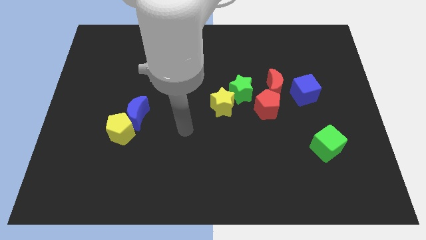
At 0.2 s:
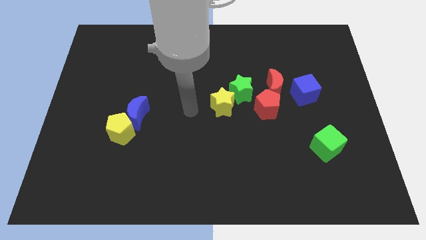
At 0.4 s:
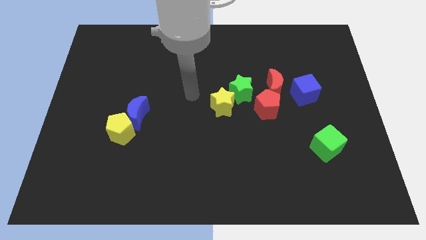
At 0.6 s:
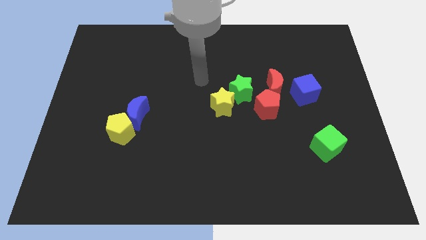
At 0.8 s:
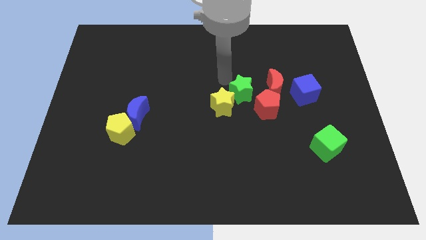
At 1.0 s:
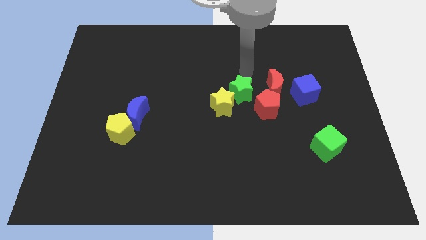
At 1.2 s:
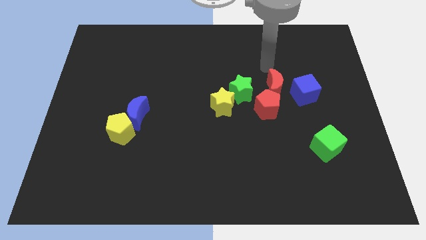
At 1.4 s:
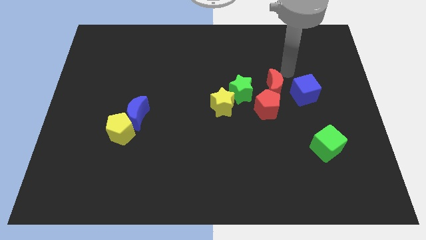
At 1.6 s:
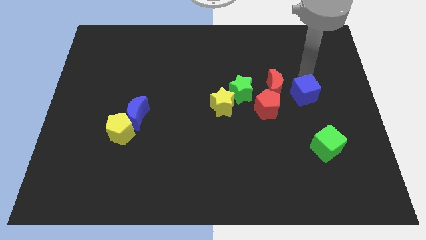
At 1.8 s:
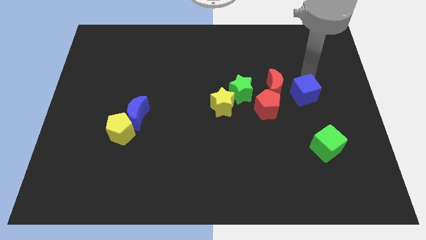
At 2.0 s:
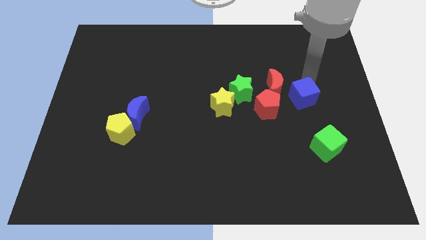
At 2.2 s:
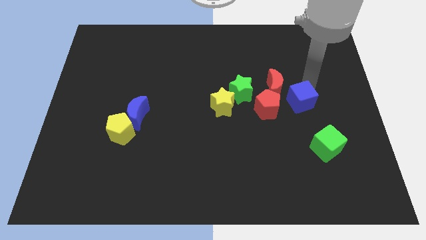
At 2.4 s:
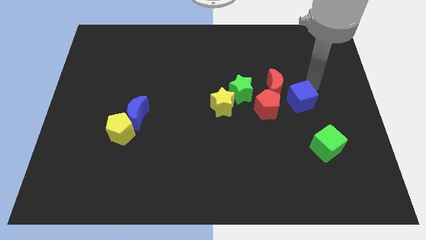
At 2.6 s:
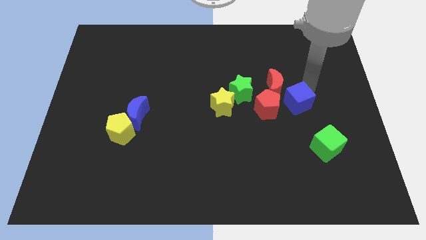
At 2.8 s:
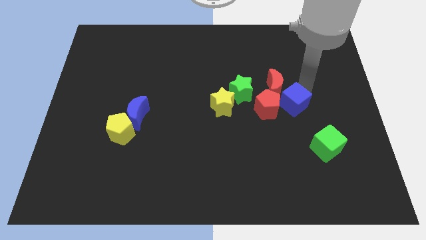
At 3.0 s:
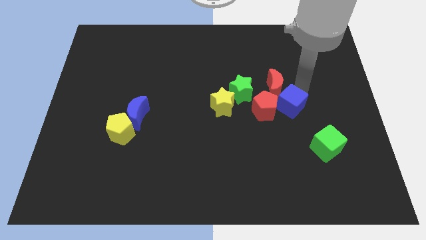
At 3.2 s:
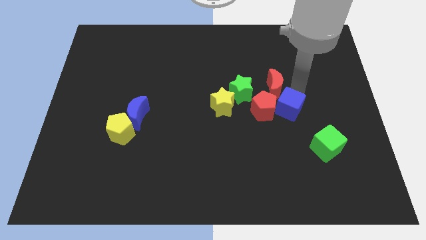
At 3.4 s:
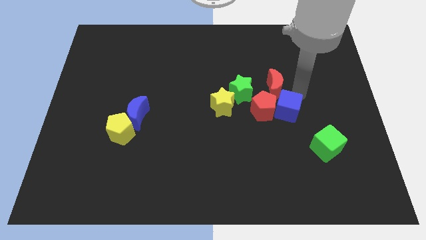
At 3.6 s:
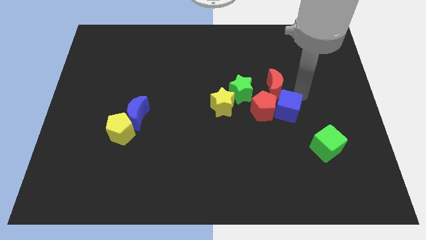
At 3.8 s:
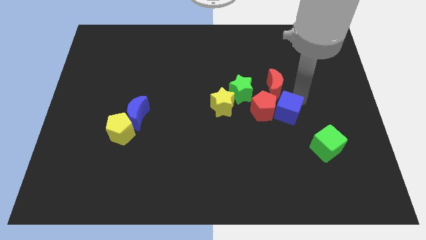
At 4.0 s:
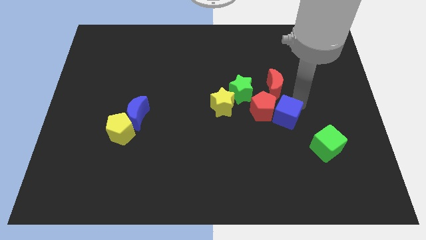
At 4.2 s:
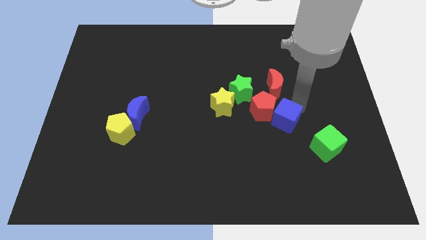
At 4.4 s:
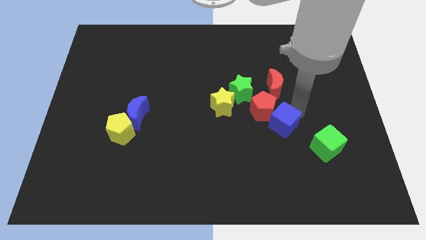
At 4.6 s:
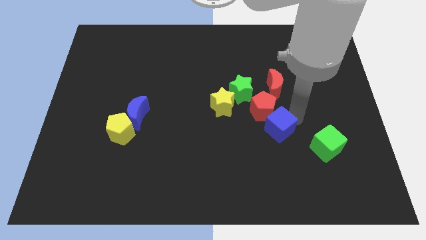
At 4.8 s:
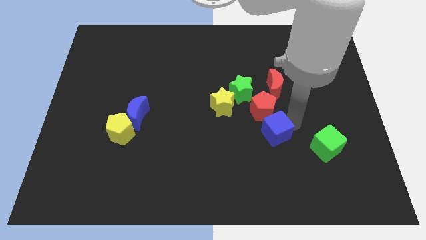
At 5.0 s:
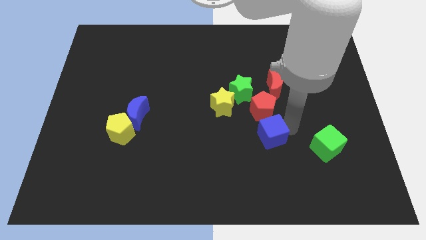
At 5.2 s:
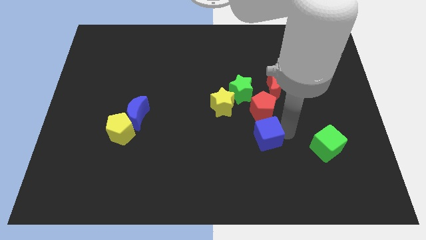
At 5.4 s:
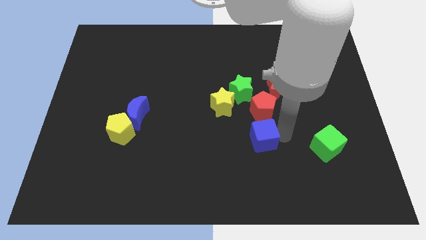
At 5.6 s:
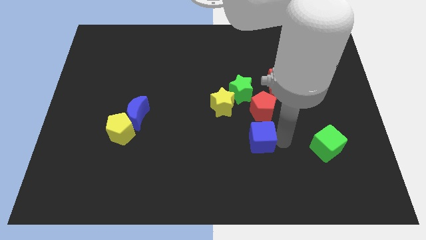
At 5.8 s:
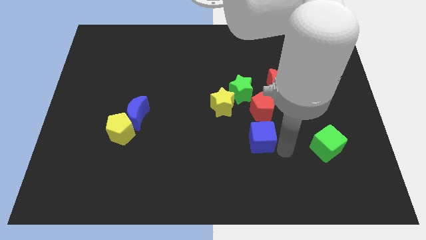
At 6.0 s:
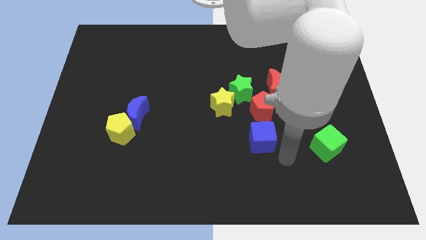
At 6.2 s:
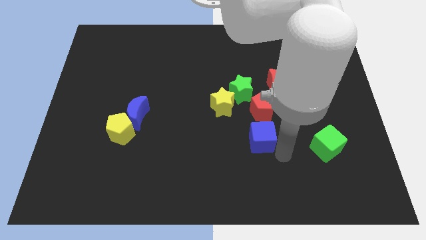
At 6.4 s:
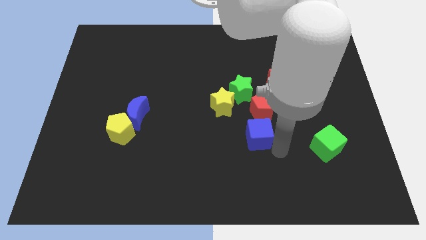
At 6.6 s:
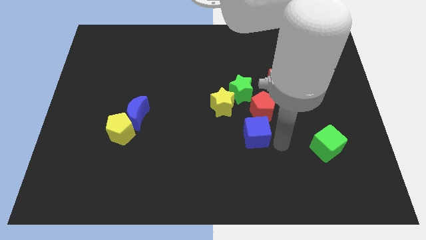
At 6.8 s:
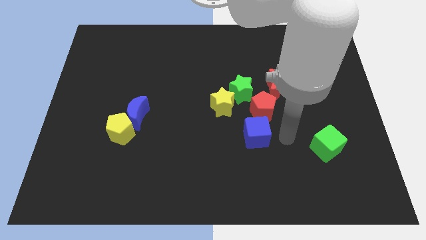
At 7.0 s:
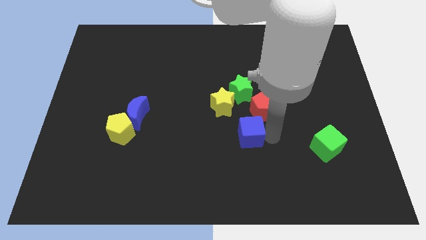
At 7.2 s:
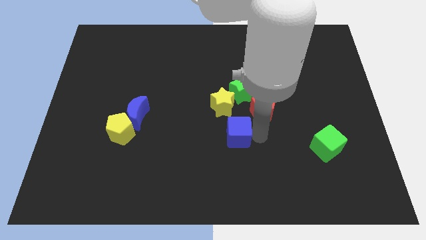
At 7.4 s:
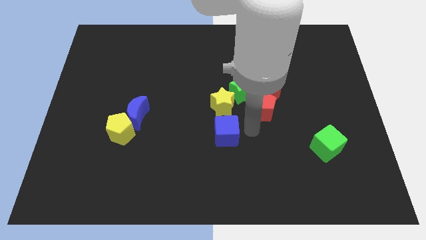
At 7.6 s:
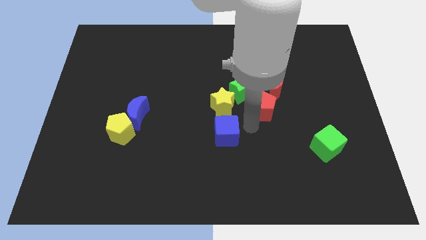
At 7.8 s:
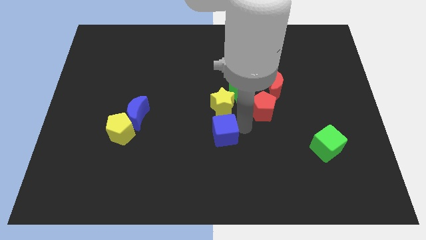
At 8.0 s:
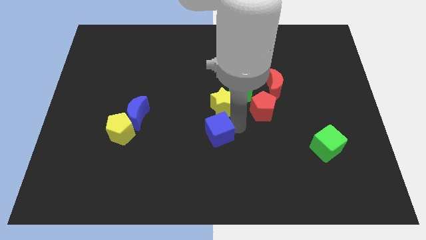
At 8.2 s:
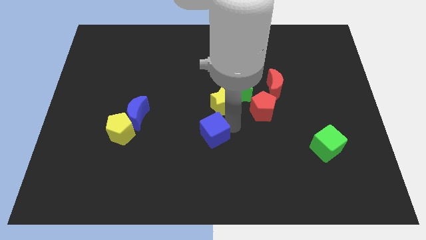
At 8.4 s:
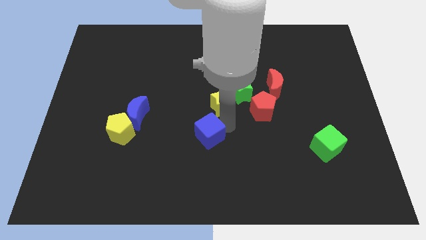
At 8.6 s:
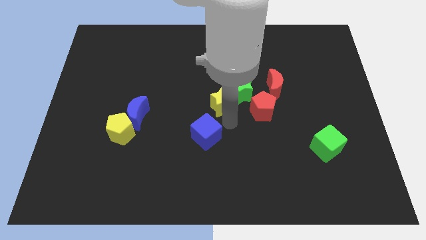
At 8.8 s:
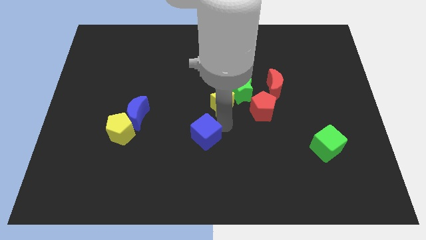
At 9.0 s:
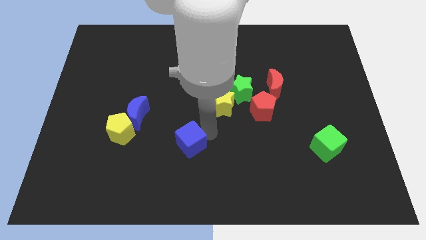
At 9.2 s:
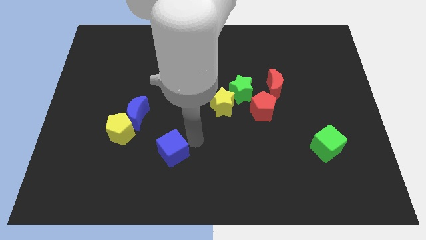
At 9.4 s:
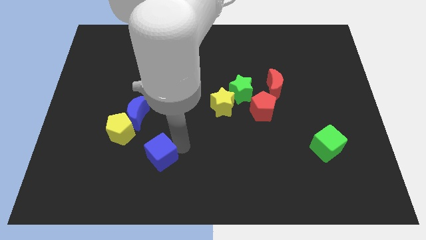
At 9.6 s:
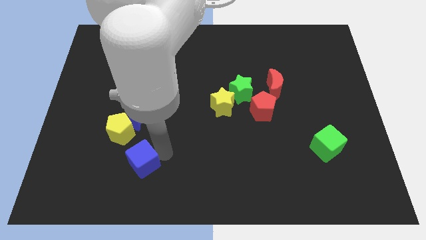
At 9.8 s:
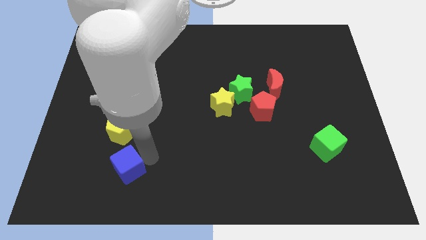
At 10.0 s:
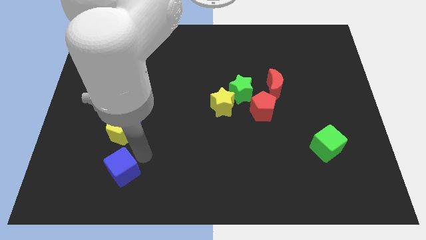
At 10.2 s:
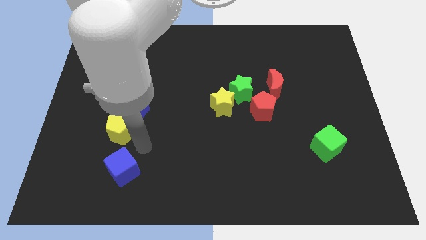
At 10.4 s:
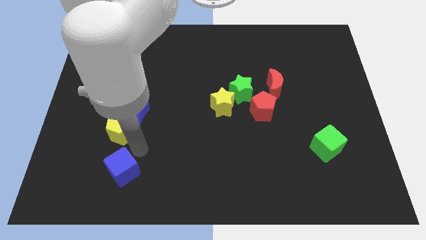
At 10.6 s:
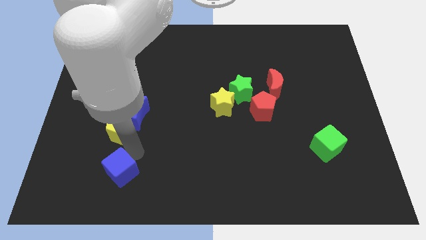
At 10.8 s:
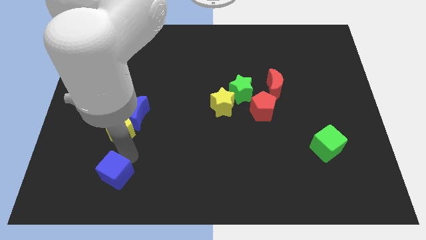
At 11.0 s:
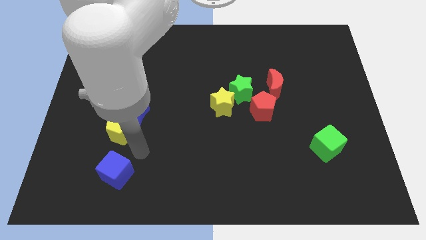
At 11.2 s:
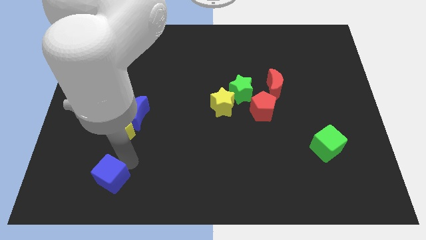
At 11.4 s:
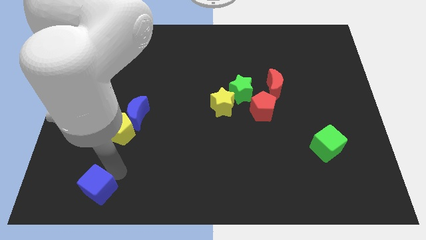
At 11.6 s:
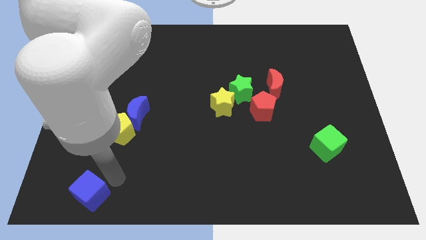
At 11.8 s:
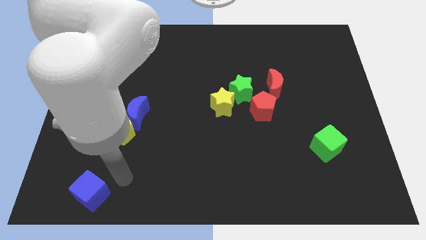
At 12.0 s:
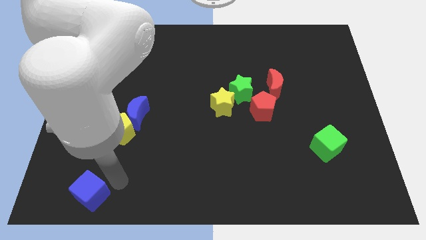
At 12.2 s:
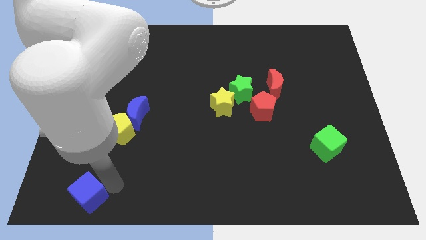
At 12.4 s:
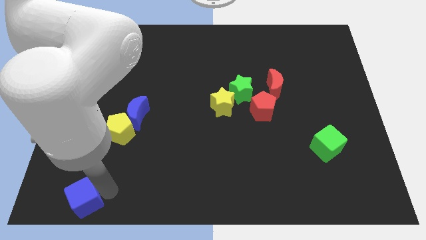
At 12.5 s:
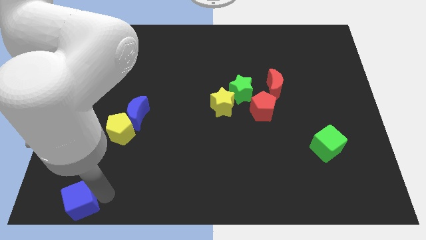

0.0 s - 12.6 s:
slide the blue cube to the lower left corner

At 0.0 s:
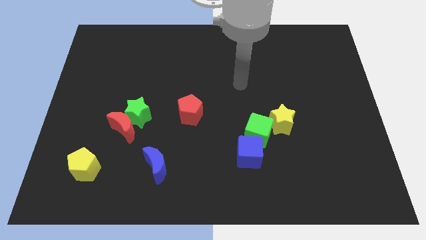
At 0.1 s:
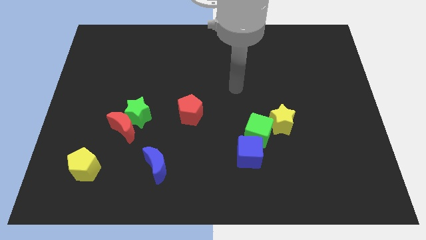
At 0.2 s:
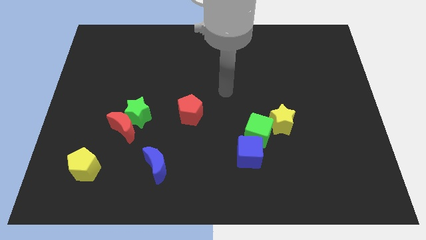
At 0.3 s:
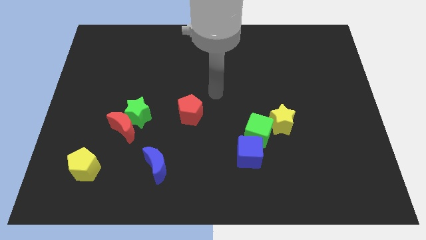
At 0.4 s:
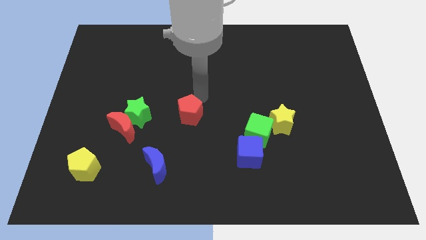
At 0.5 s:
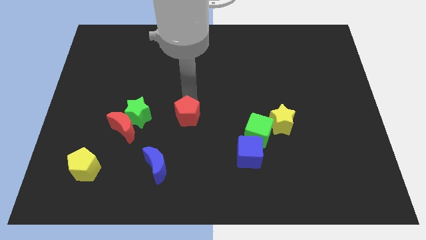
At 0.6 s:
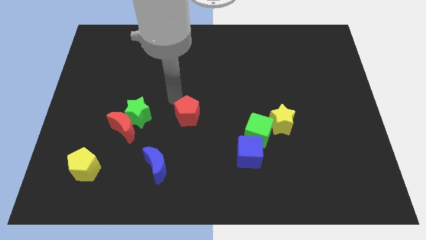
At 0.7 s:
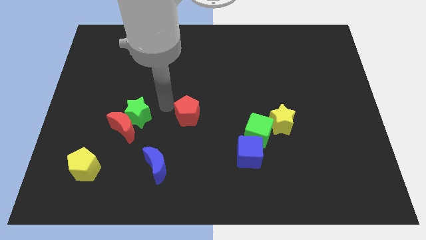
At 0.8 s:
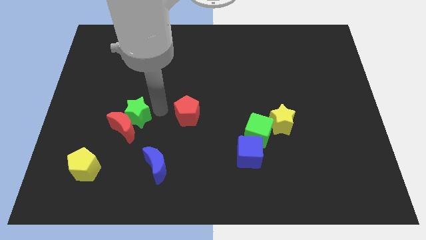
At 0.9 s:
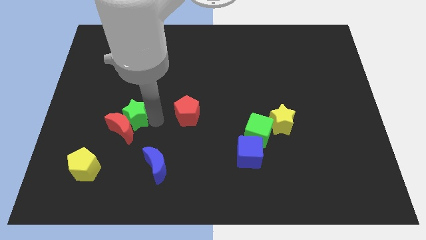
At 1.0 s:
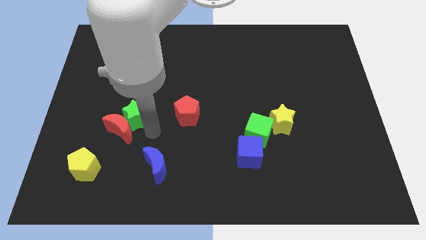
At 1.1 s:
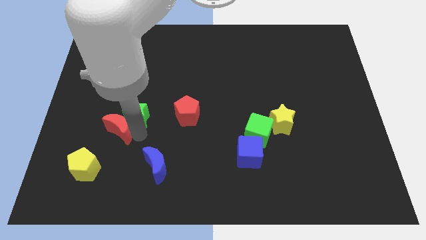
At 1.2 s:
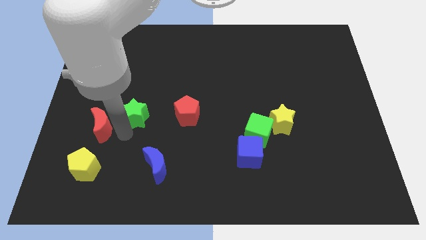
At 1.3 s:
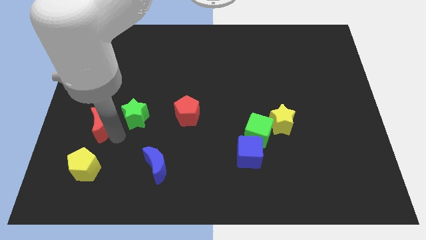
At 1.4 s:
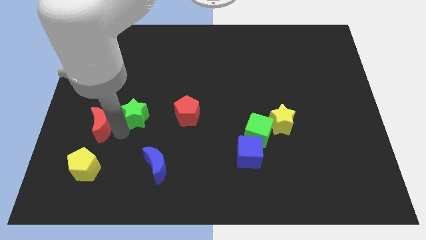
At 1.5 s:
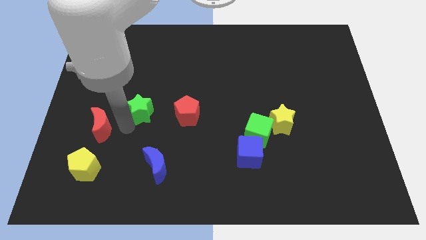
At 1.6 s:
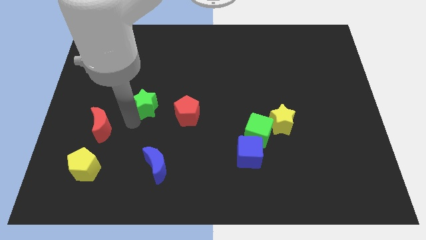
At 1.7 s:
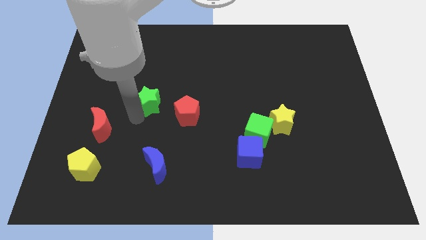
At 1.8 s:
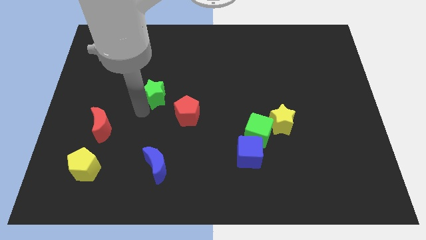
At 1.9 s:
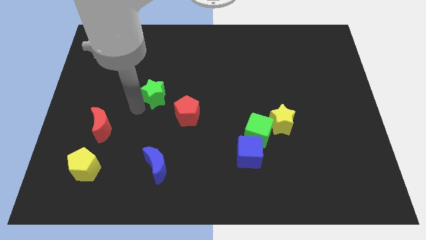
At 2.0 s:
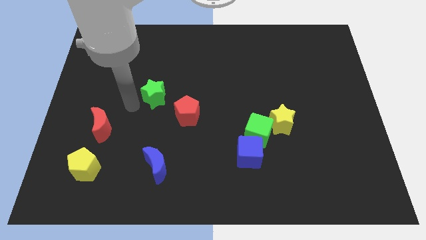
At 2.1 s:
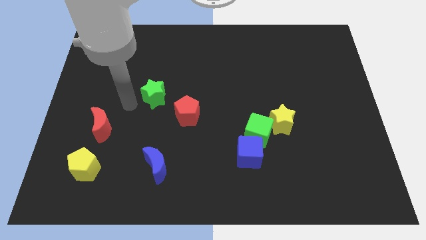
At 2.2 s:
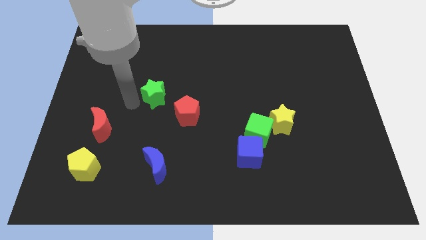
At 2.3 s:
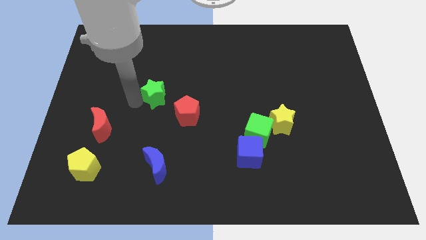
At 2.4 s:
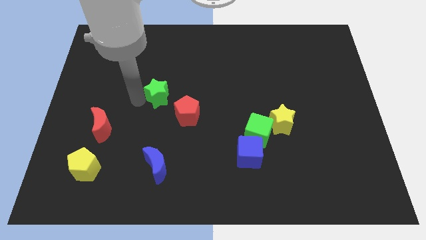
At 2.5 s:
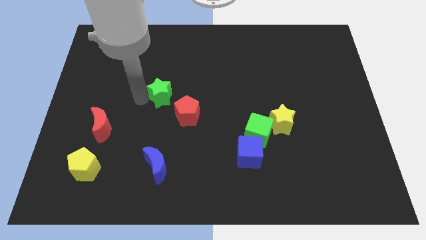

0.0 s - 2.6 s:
push the green star to the center of the board
